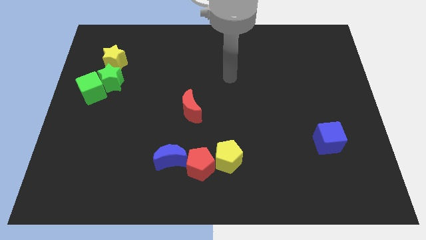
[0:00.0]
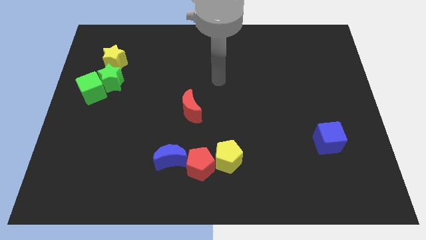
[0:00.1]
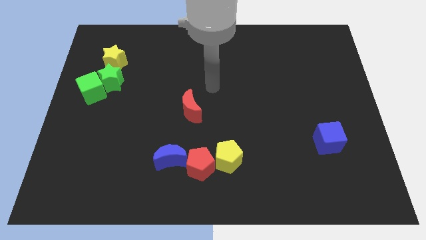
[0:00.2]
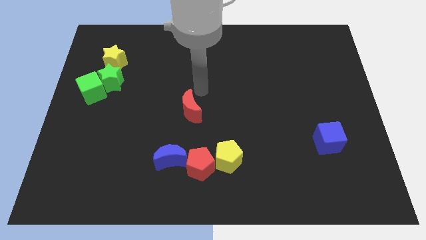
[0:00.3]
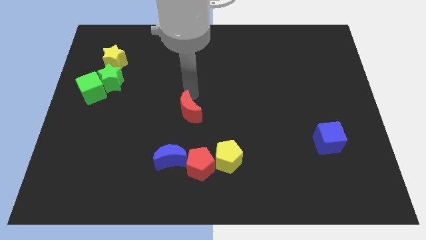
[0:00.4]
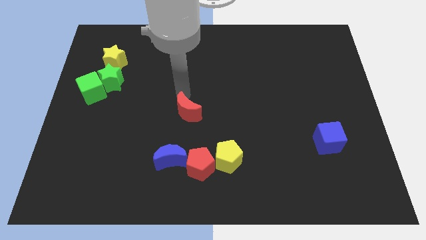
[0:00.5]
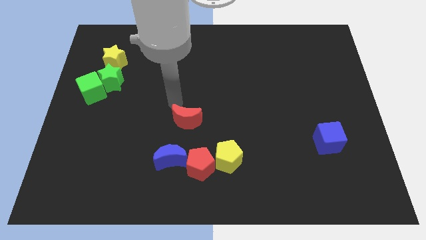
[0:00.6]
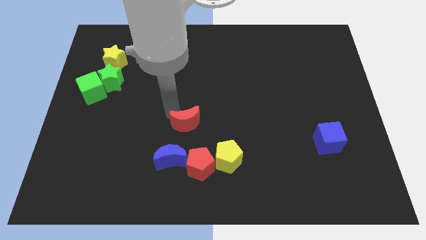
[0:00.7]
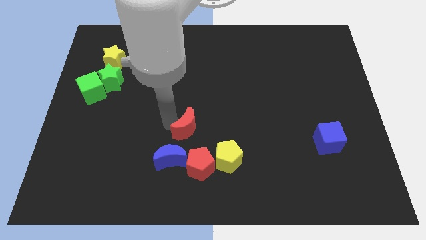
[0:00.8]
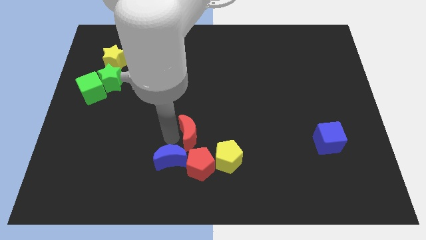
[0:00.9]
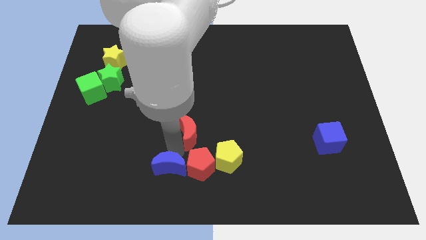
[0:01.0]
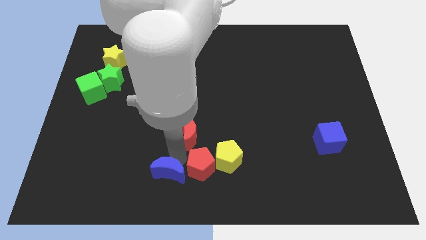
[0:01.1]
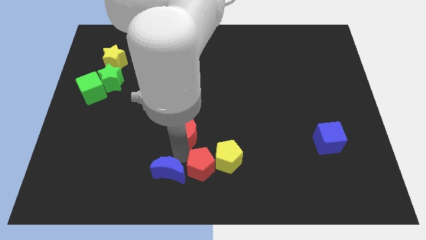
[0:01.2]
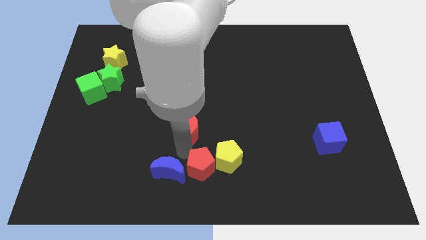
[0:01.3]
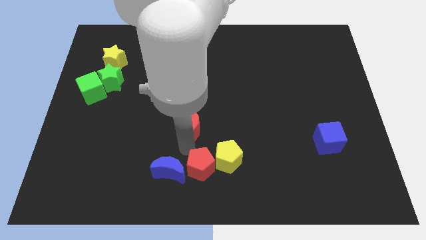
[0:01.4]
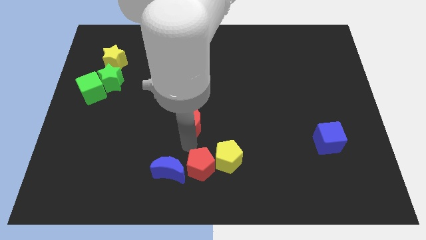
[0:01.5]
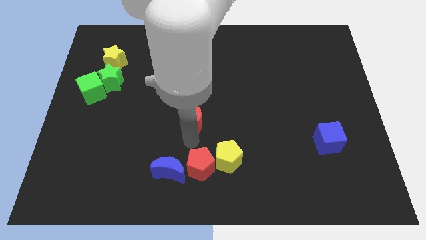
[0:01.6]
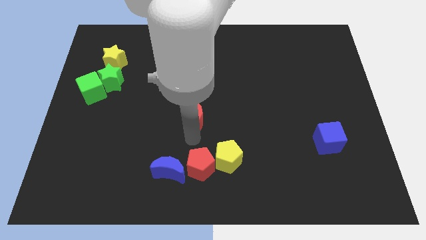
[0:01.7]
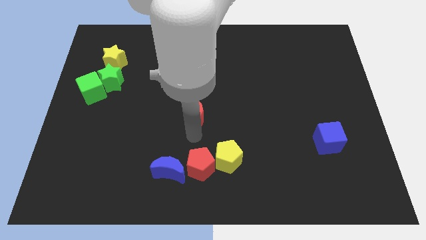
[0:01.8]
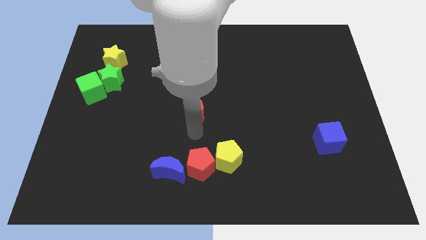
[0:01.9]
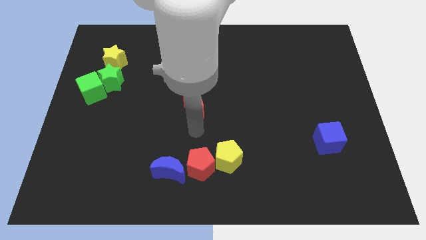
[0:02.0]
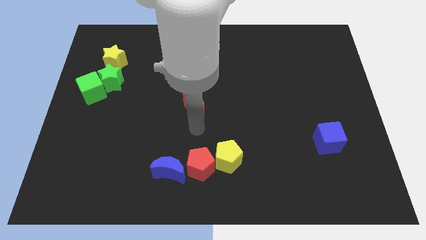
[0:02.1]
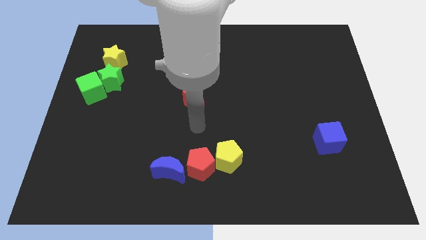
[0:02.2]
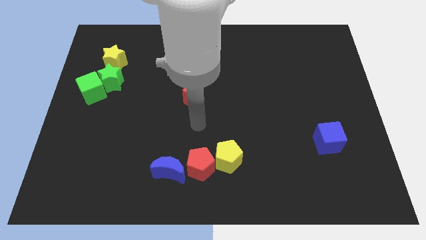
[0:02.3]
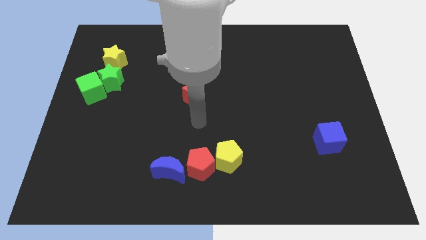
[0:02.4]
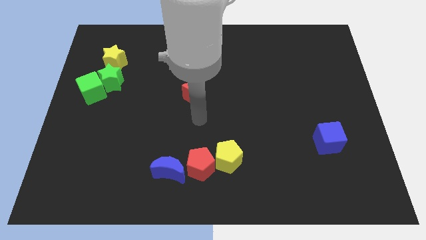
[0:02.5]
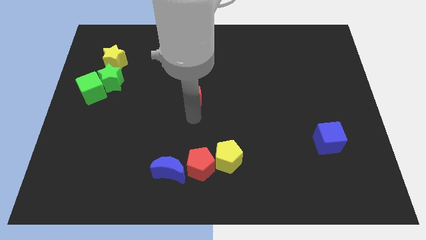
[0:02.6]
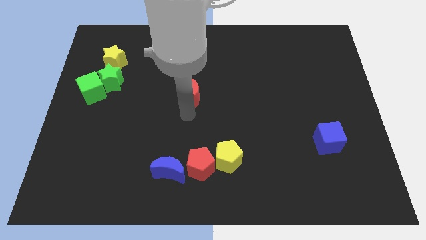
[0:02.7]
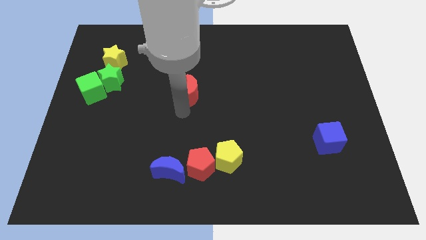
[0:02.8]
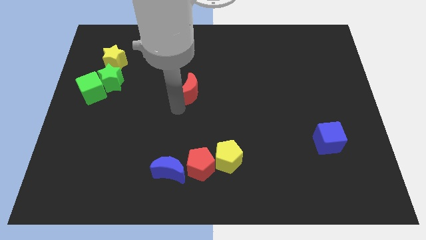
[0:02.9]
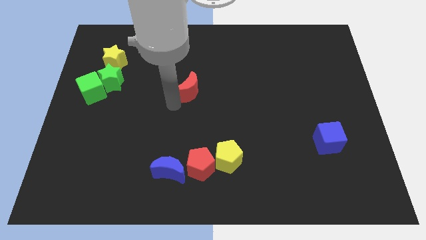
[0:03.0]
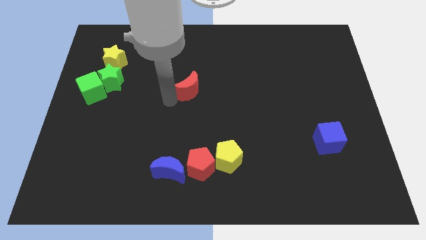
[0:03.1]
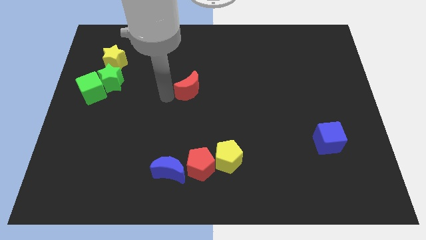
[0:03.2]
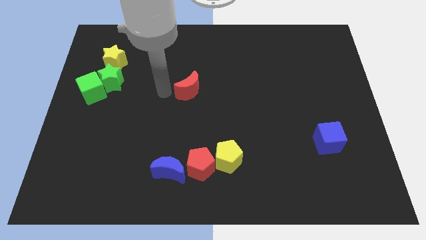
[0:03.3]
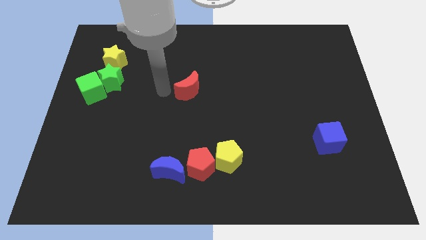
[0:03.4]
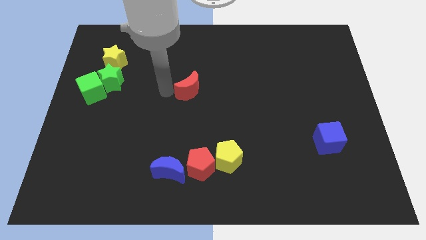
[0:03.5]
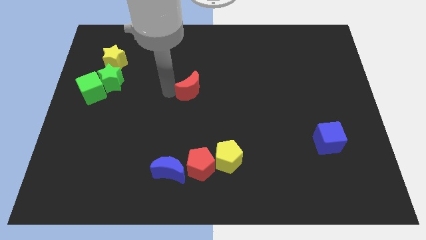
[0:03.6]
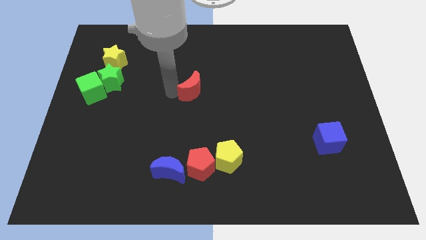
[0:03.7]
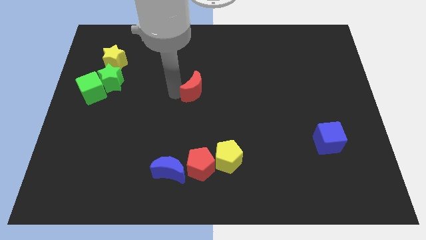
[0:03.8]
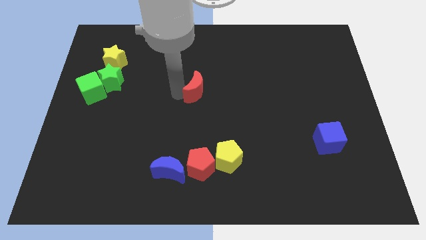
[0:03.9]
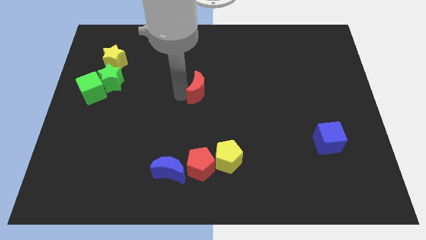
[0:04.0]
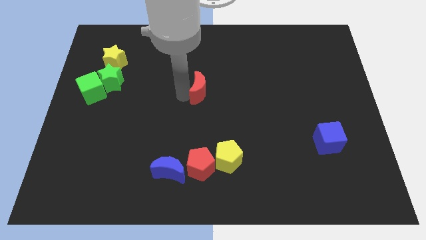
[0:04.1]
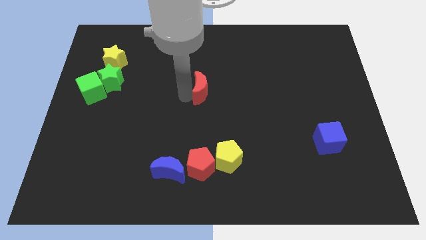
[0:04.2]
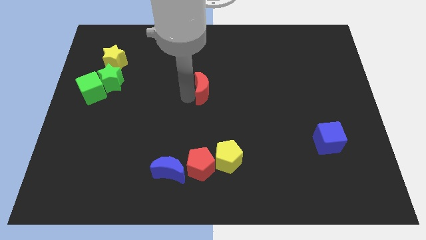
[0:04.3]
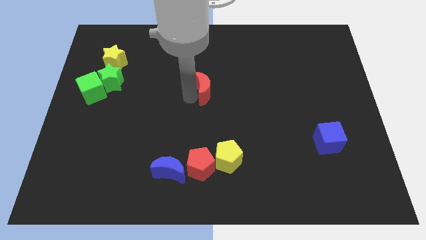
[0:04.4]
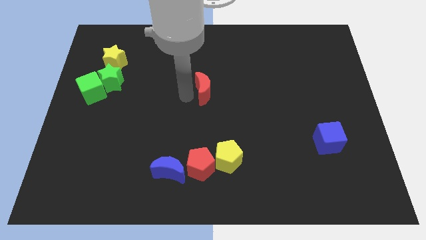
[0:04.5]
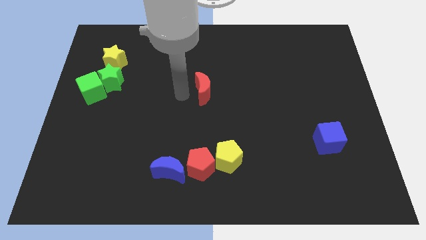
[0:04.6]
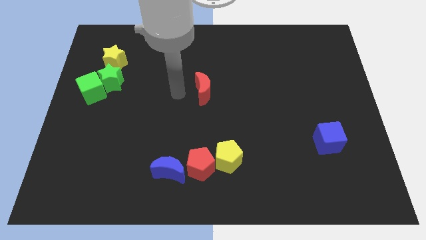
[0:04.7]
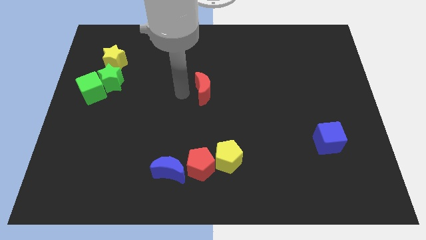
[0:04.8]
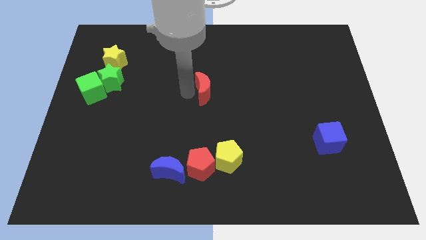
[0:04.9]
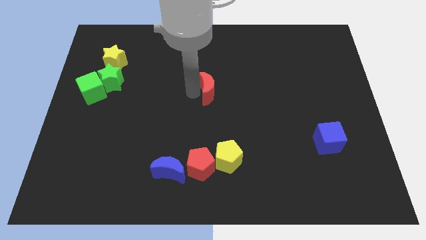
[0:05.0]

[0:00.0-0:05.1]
slightly push the red moon upwards and then to the right

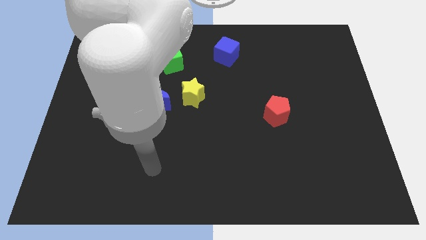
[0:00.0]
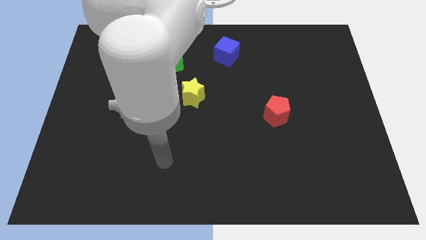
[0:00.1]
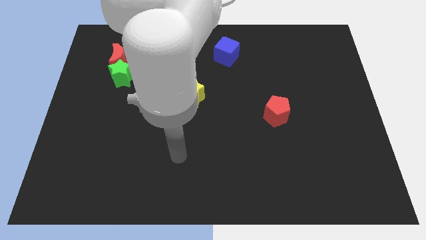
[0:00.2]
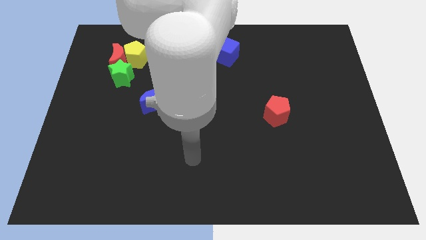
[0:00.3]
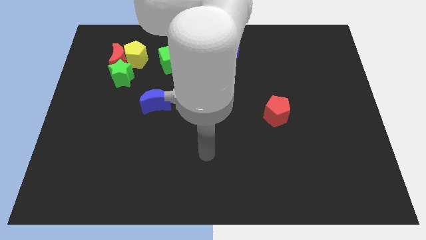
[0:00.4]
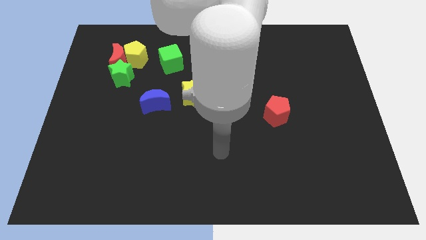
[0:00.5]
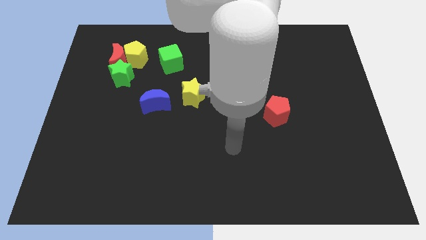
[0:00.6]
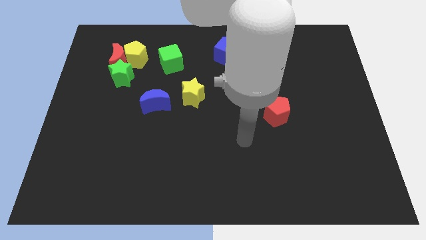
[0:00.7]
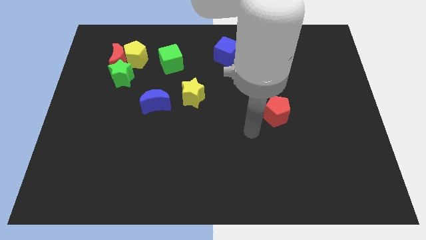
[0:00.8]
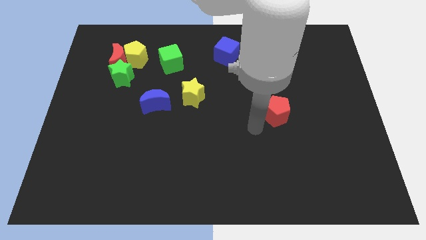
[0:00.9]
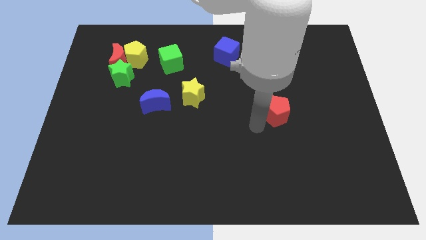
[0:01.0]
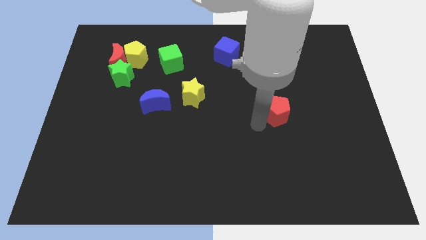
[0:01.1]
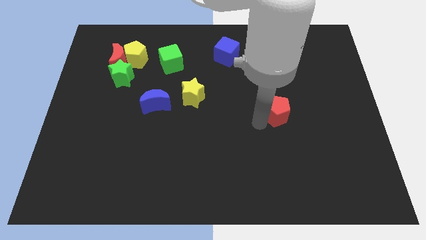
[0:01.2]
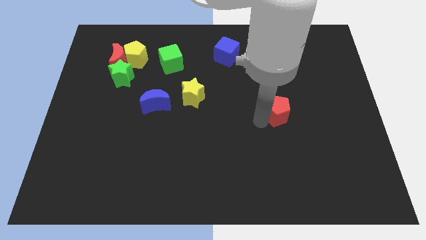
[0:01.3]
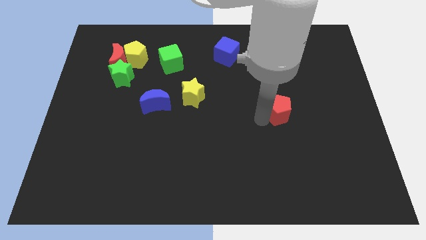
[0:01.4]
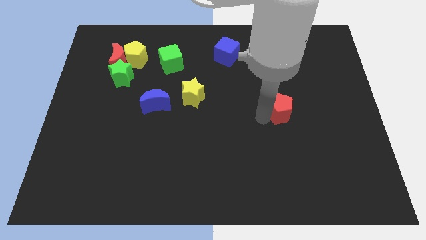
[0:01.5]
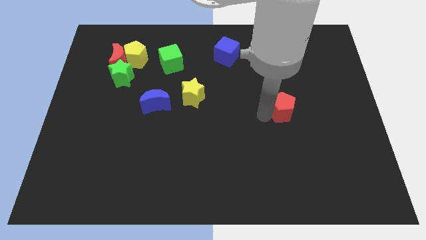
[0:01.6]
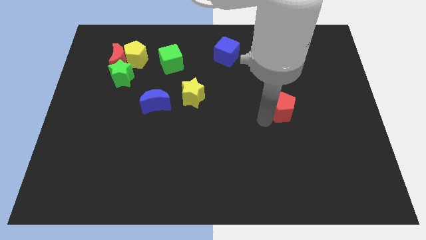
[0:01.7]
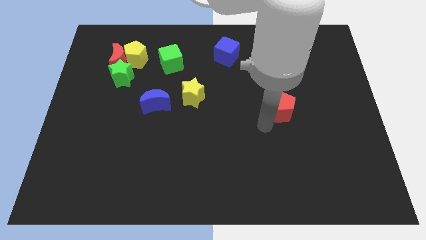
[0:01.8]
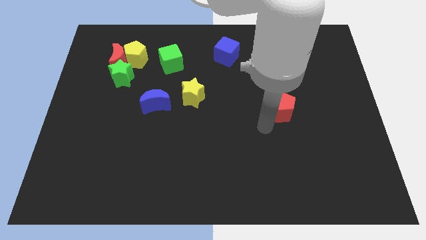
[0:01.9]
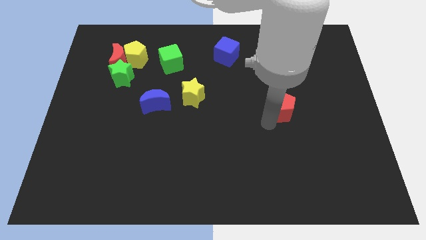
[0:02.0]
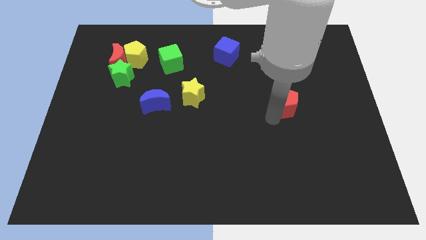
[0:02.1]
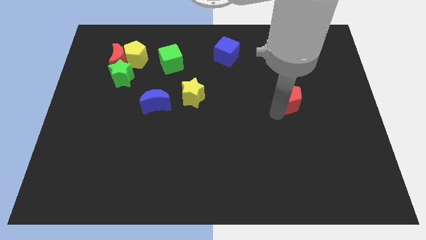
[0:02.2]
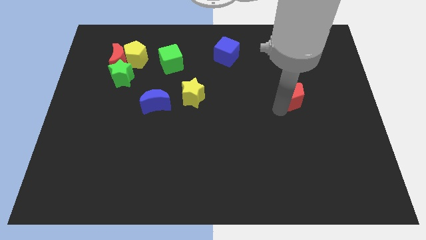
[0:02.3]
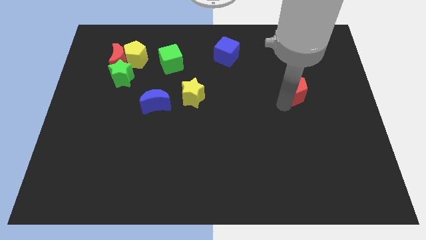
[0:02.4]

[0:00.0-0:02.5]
slightly slide the red pentagon diagonally upwards and right

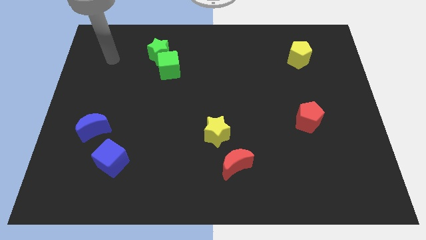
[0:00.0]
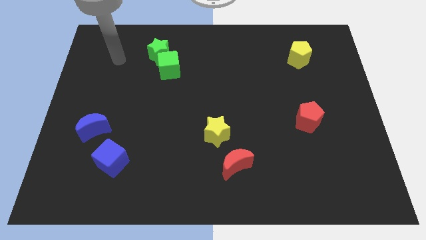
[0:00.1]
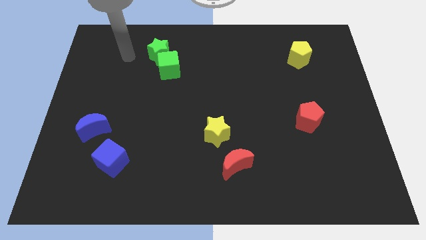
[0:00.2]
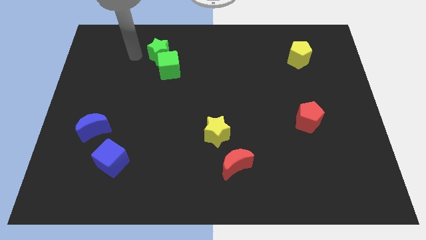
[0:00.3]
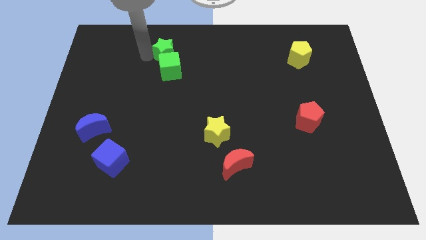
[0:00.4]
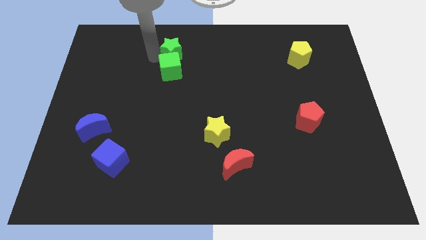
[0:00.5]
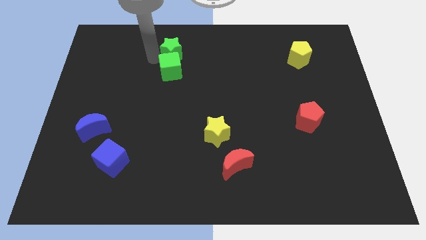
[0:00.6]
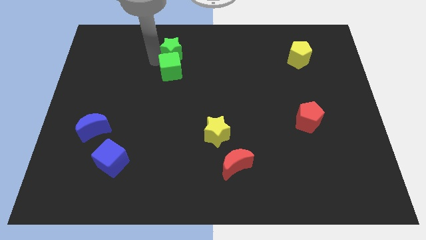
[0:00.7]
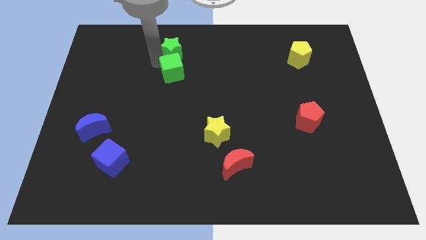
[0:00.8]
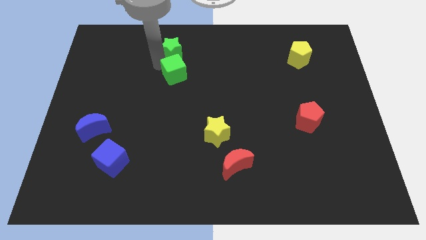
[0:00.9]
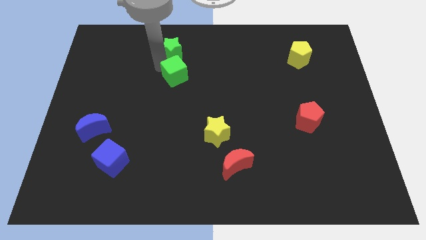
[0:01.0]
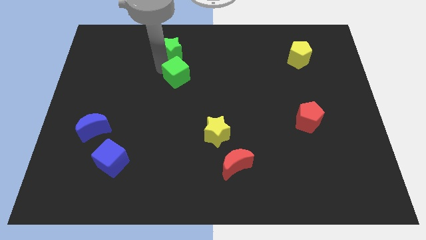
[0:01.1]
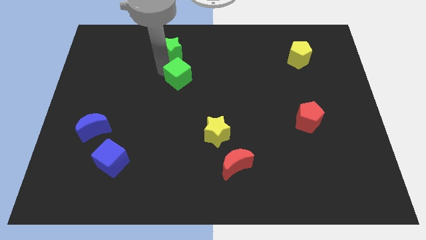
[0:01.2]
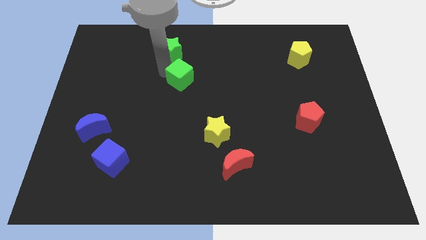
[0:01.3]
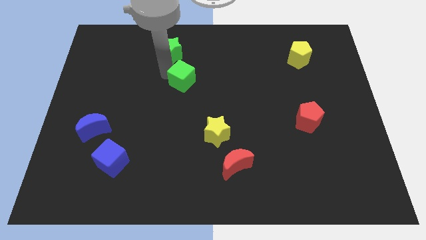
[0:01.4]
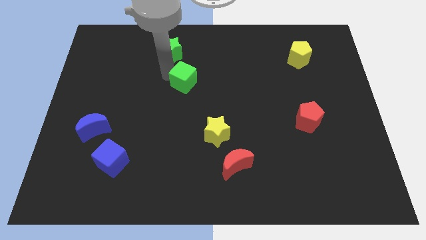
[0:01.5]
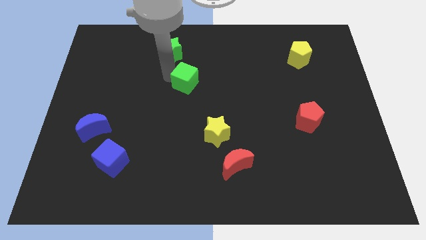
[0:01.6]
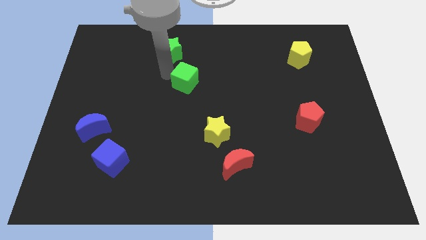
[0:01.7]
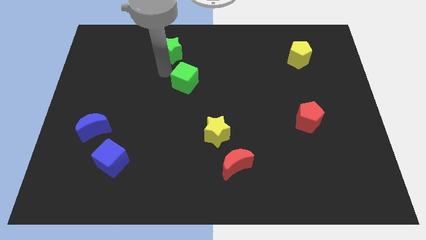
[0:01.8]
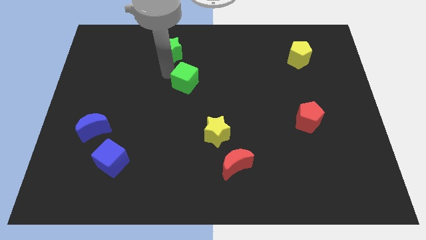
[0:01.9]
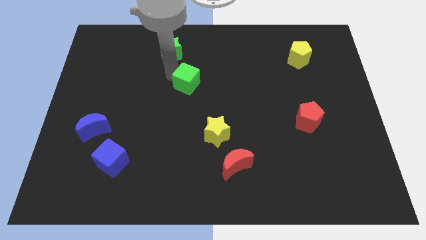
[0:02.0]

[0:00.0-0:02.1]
push the green cube slightly downwards and then to the right
